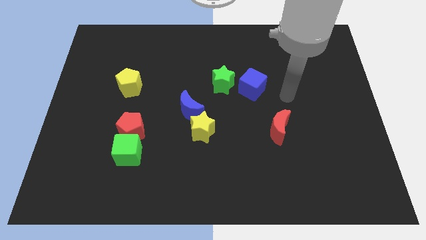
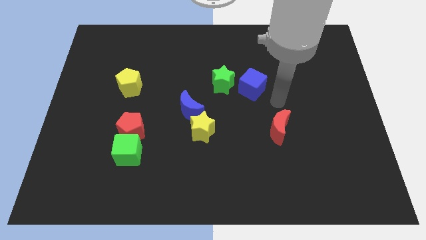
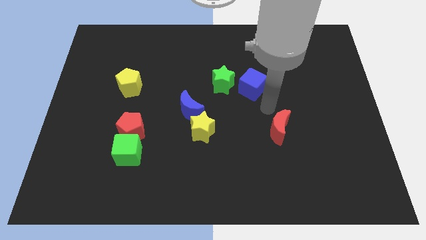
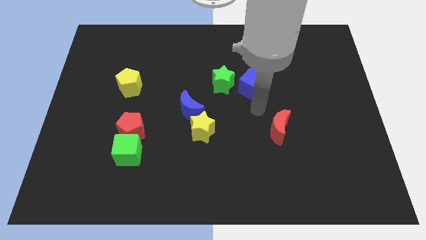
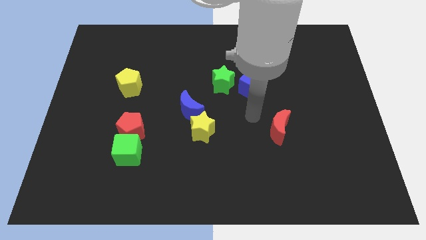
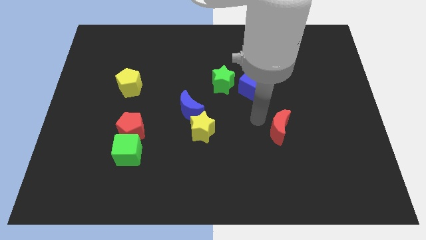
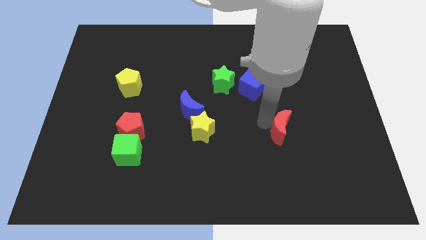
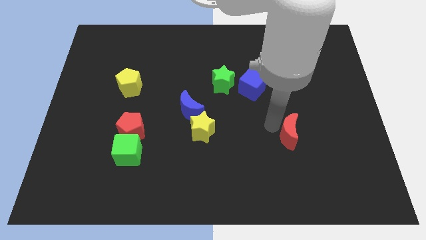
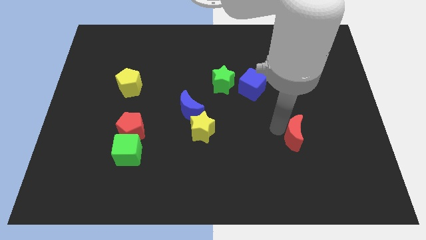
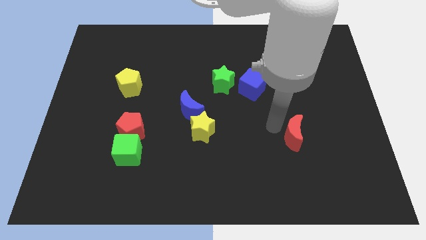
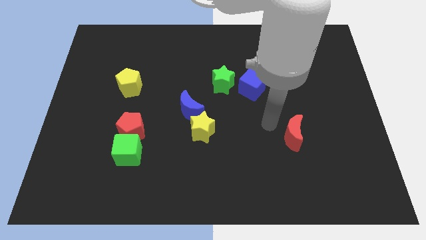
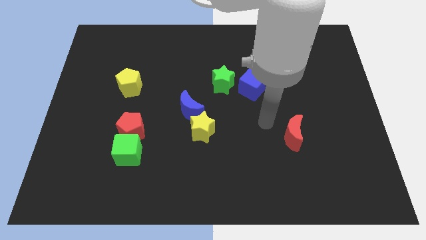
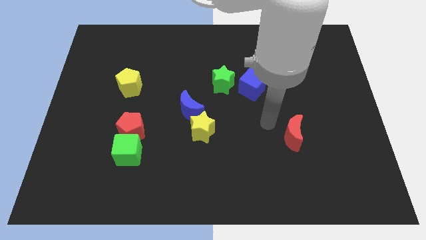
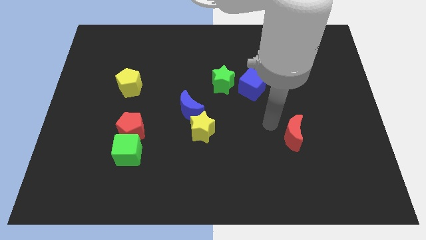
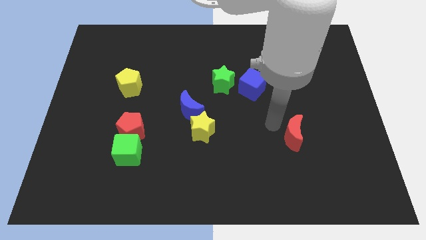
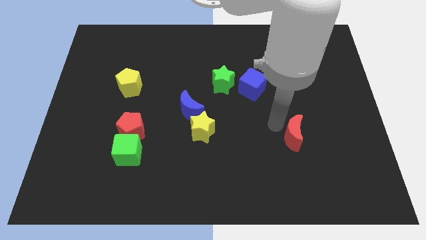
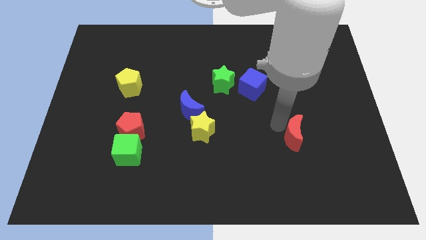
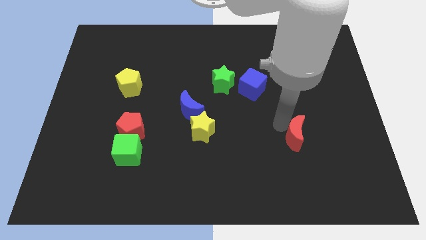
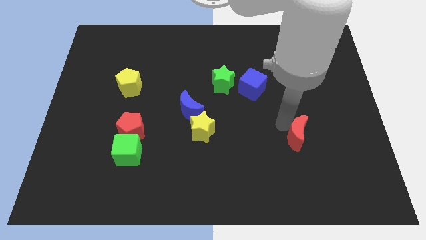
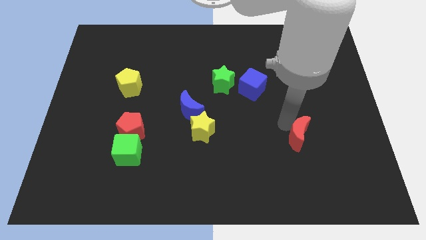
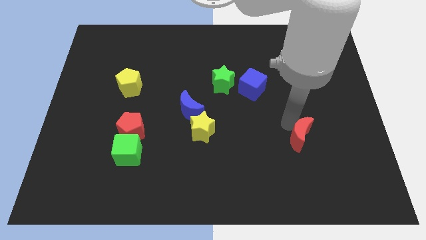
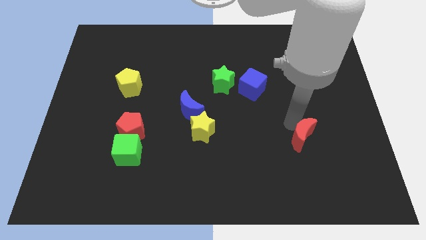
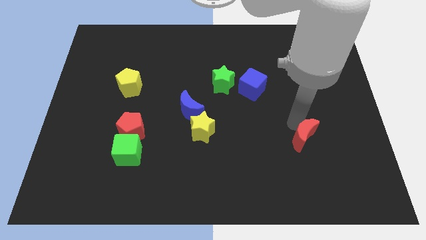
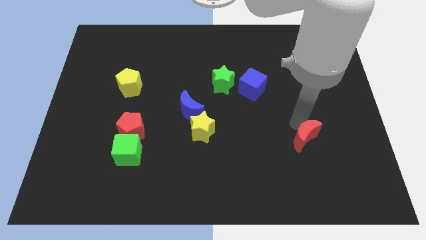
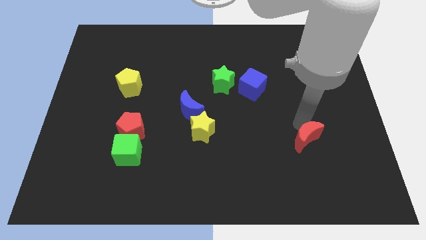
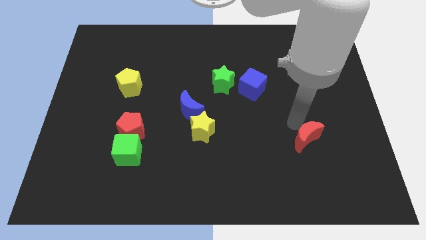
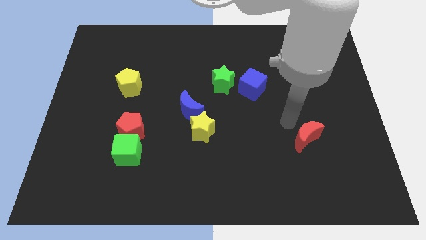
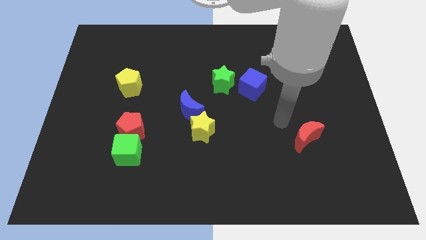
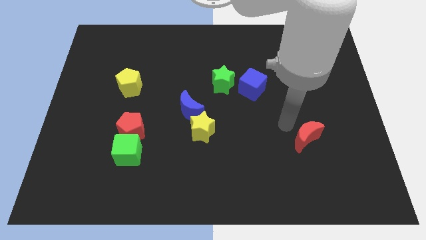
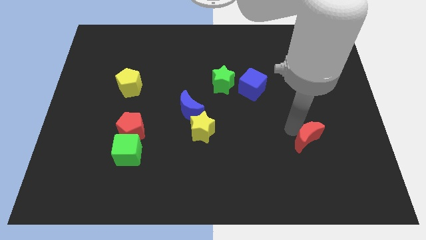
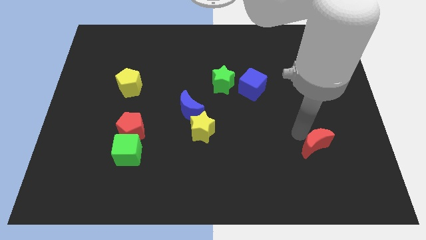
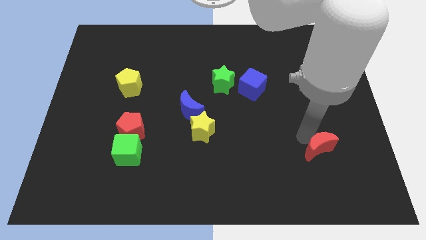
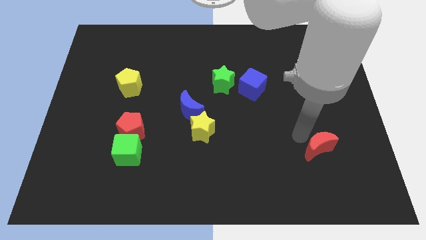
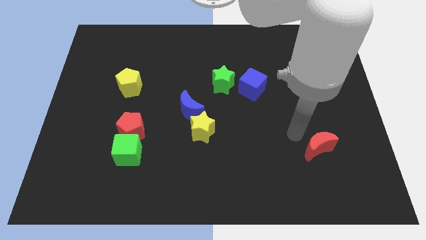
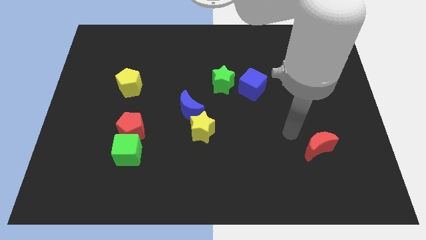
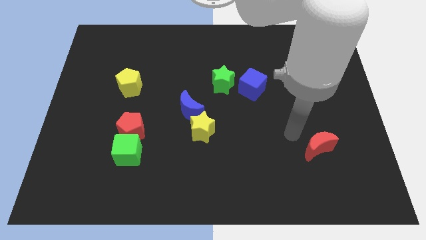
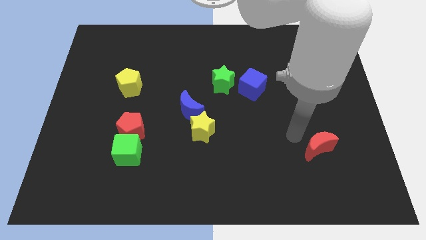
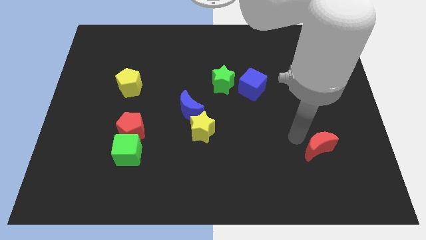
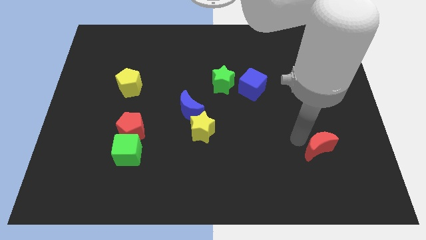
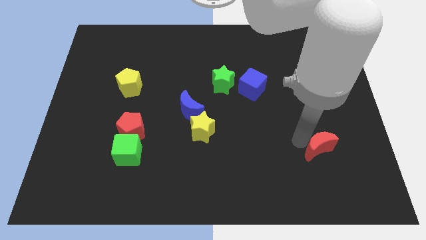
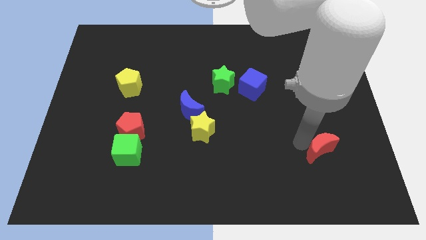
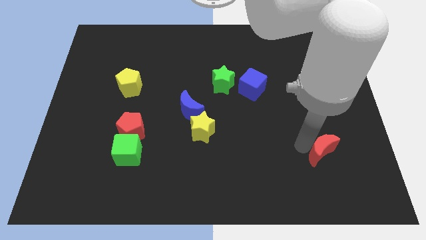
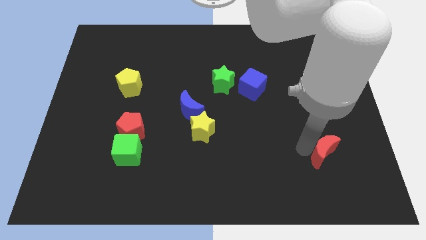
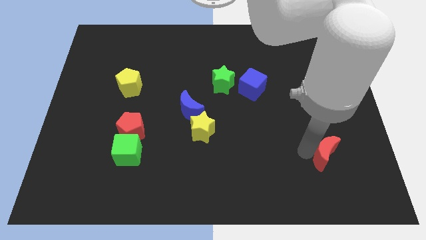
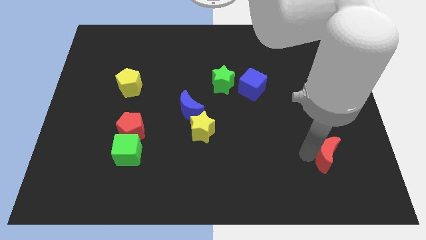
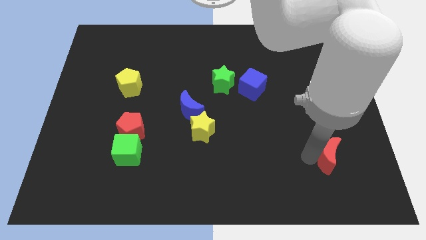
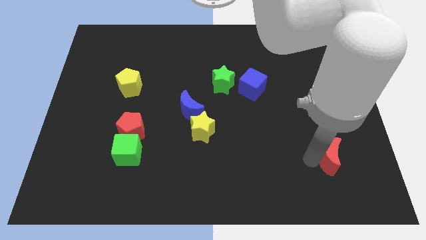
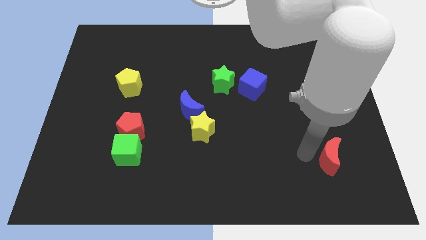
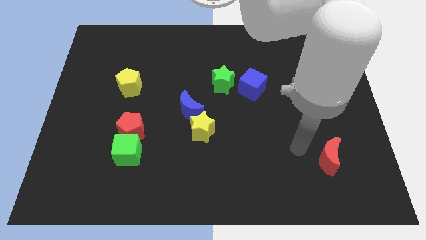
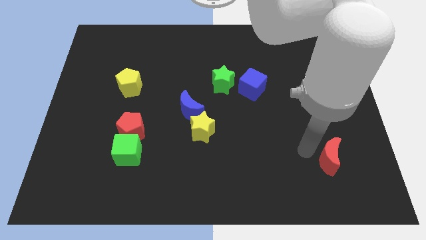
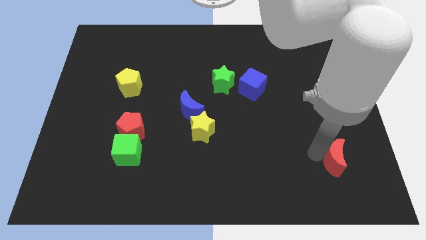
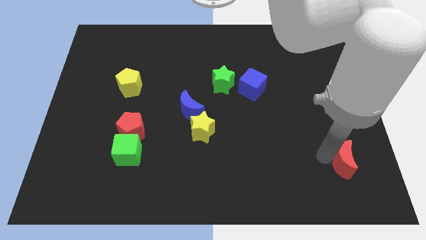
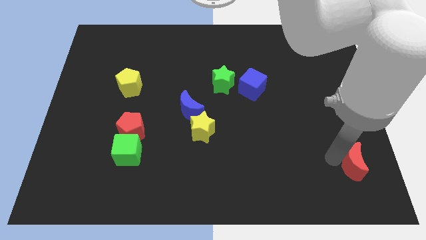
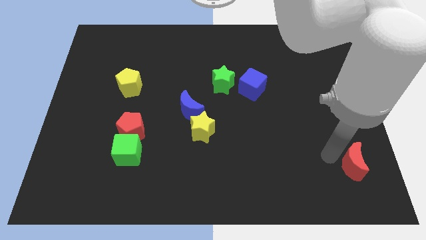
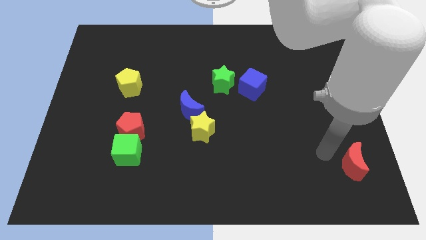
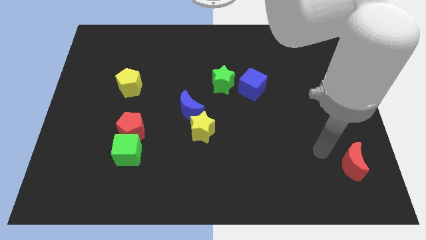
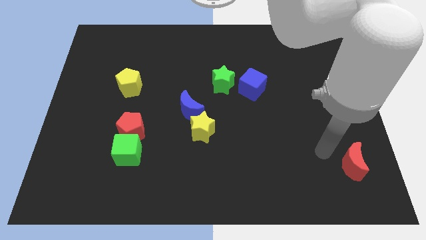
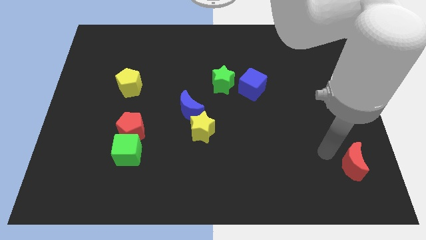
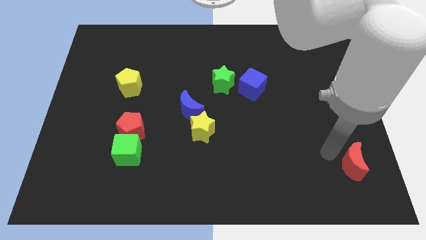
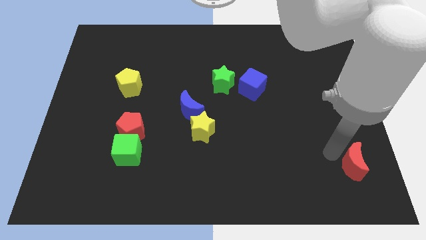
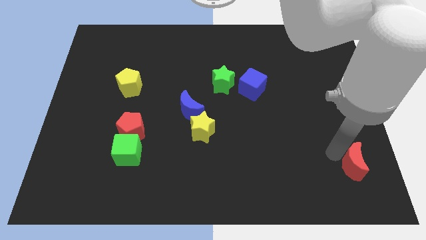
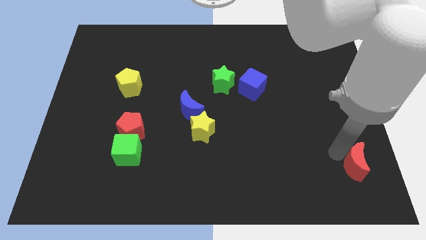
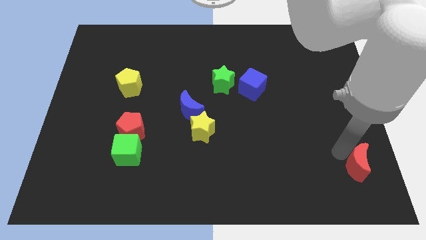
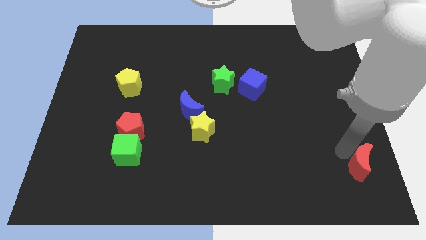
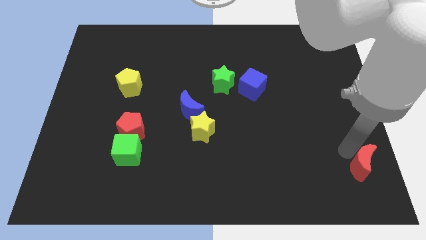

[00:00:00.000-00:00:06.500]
slide the red moon to the lower right corner
